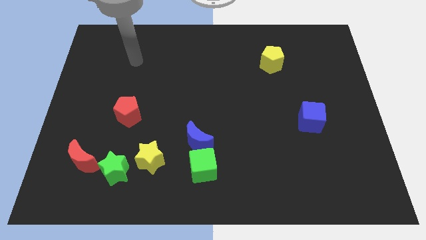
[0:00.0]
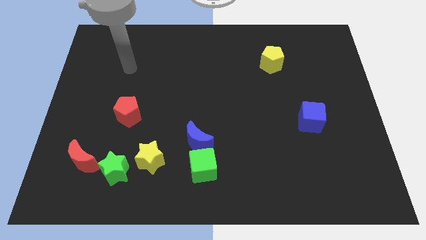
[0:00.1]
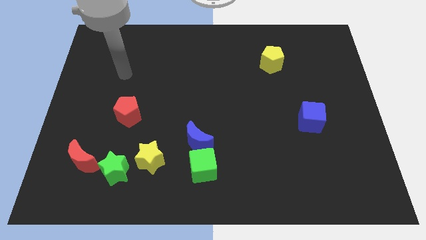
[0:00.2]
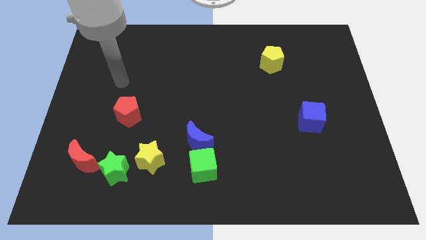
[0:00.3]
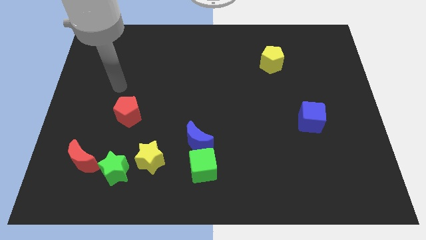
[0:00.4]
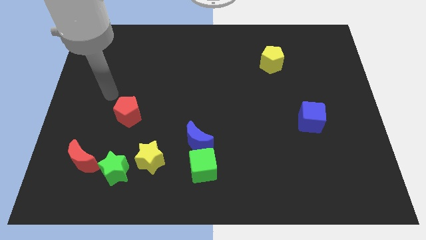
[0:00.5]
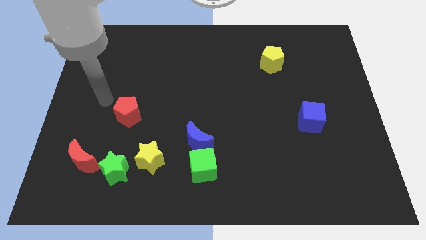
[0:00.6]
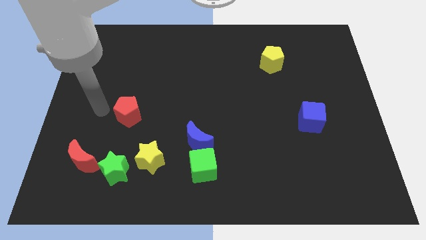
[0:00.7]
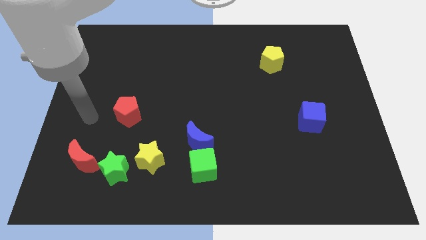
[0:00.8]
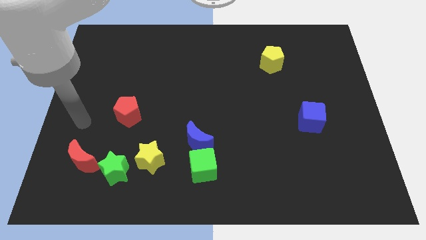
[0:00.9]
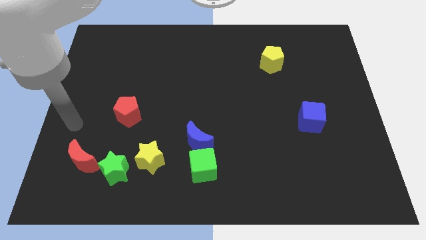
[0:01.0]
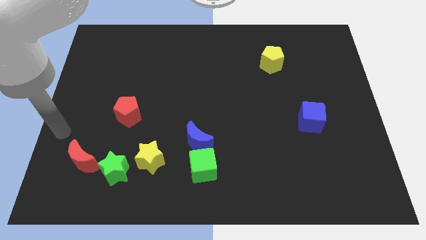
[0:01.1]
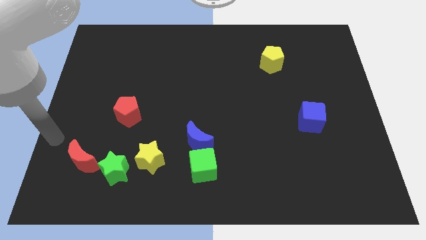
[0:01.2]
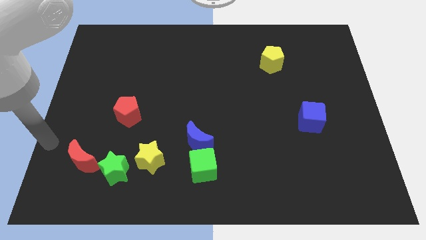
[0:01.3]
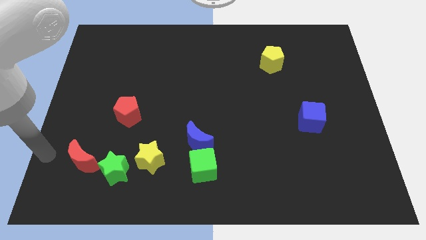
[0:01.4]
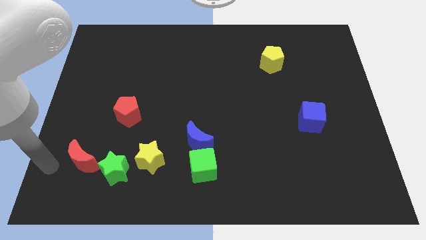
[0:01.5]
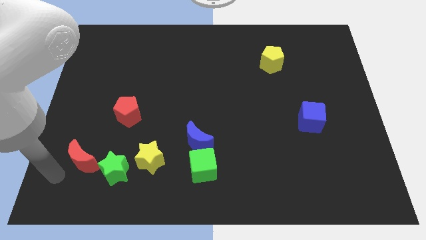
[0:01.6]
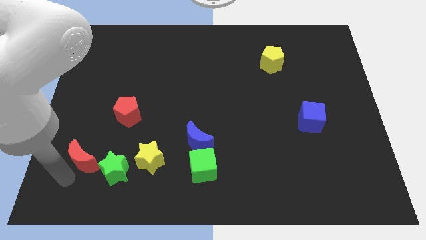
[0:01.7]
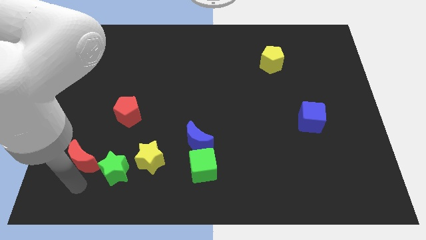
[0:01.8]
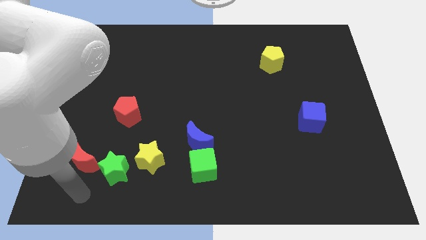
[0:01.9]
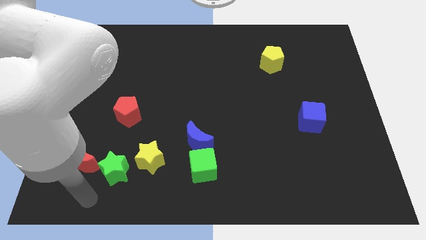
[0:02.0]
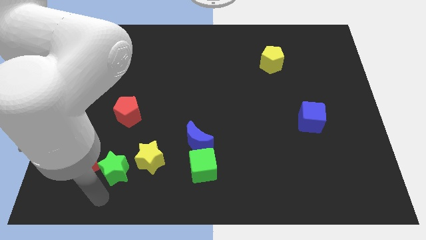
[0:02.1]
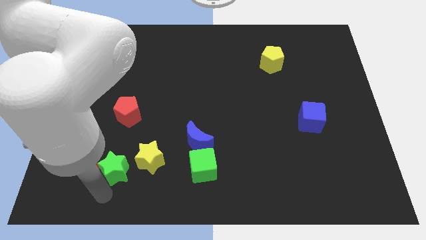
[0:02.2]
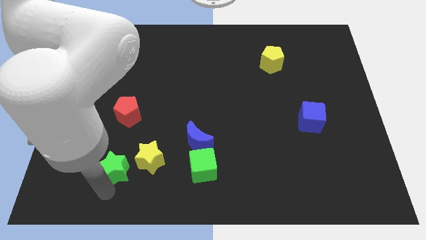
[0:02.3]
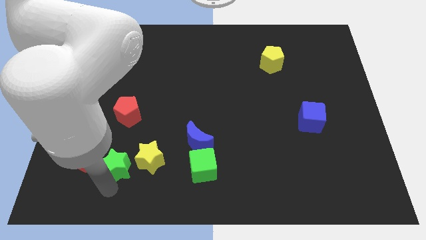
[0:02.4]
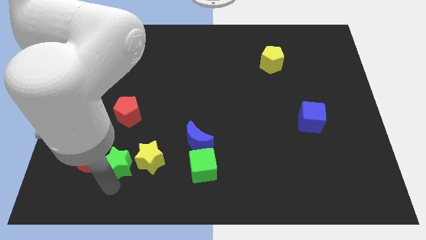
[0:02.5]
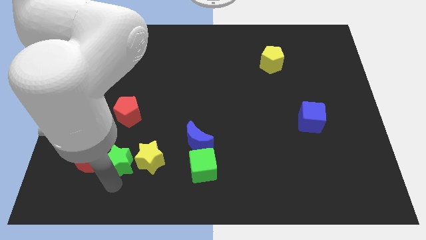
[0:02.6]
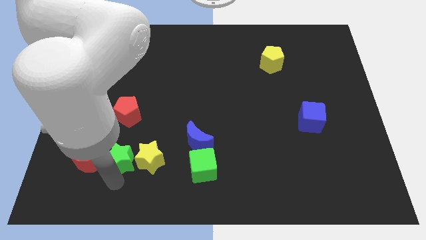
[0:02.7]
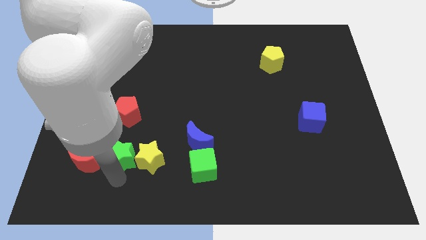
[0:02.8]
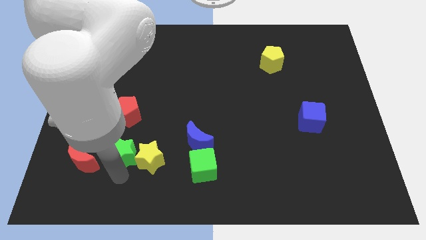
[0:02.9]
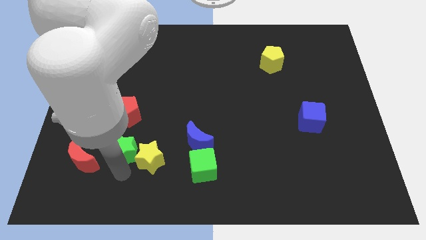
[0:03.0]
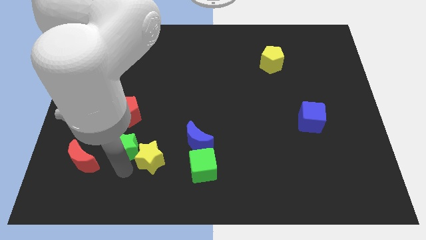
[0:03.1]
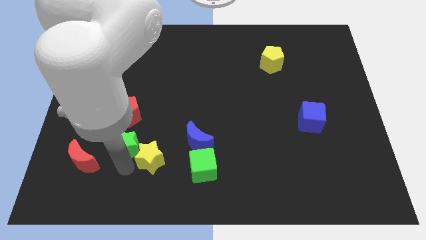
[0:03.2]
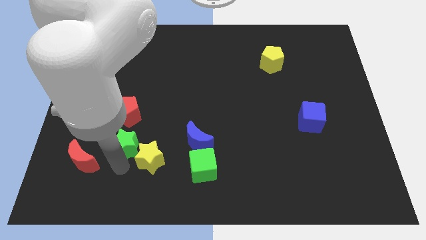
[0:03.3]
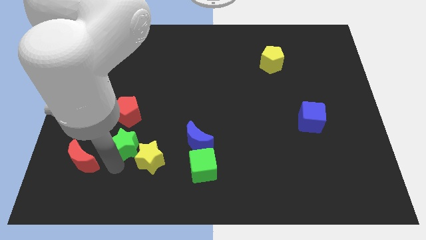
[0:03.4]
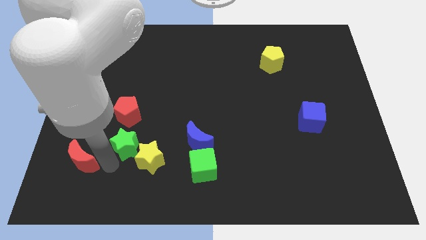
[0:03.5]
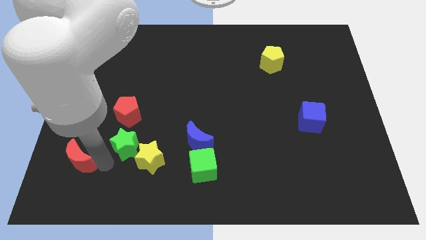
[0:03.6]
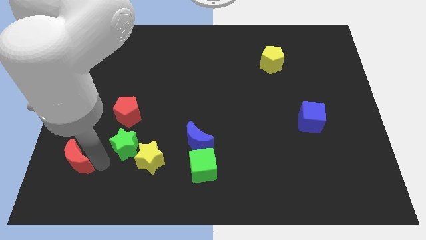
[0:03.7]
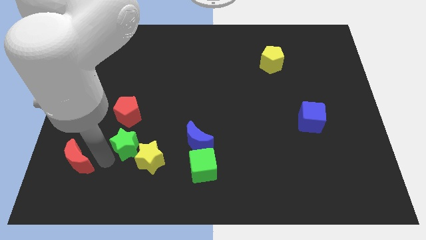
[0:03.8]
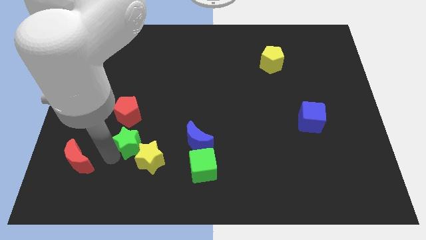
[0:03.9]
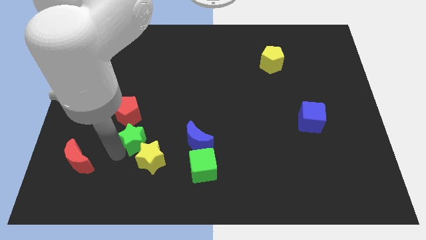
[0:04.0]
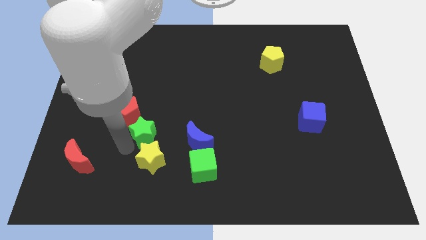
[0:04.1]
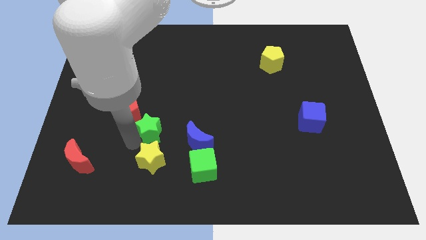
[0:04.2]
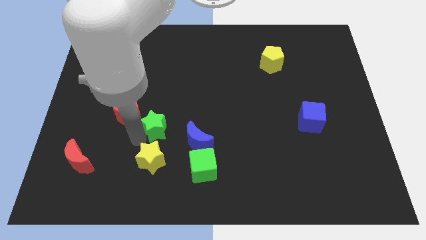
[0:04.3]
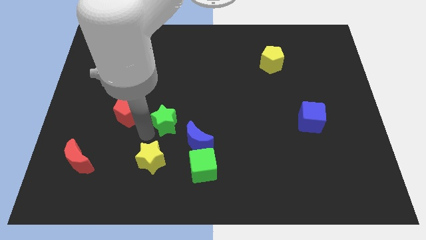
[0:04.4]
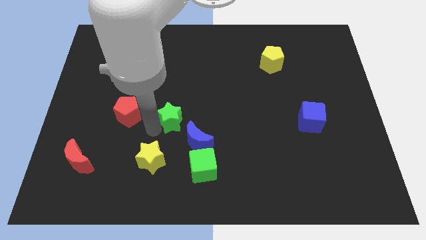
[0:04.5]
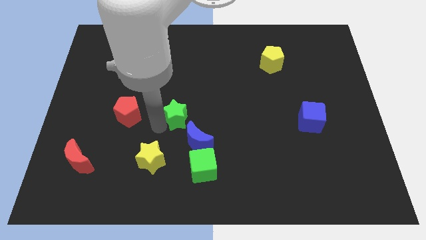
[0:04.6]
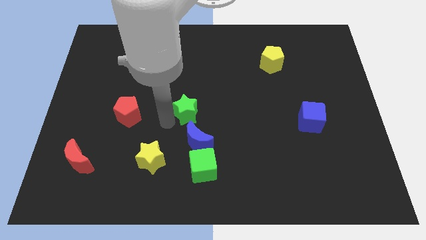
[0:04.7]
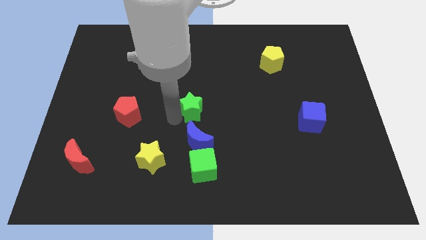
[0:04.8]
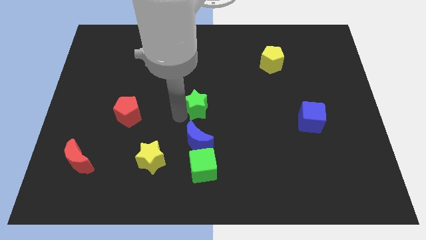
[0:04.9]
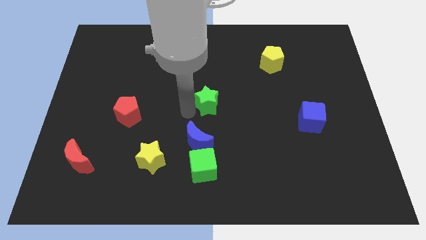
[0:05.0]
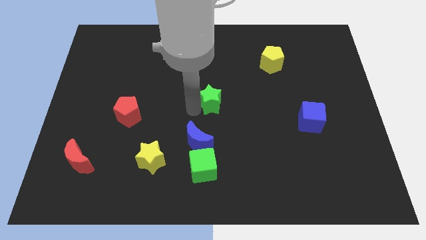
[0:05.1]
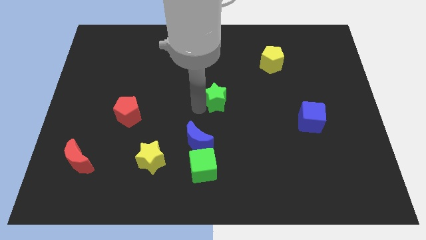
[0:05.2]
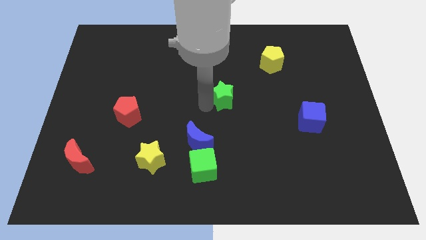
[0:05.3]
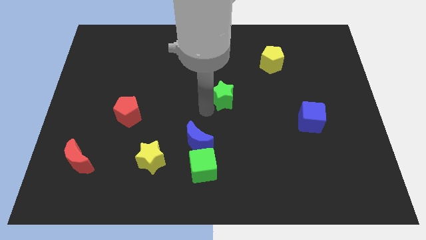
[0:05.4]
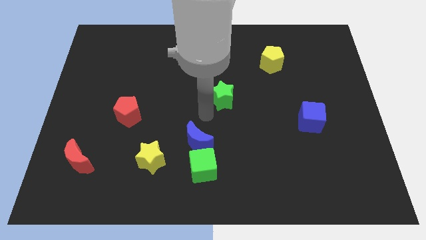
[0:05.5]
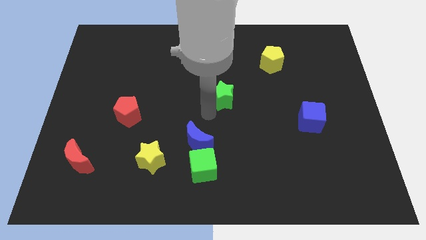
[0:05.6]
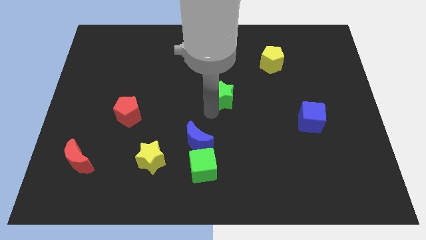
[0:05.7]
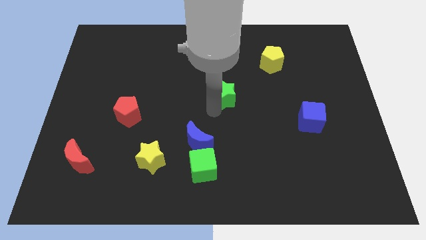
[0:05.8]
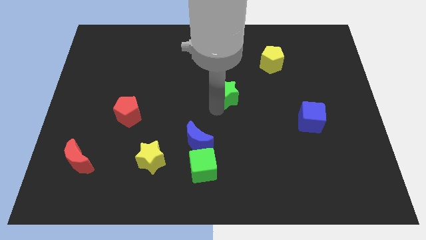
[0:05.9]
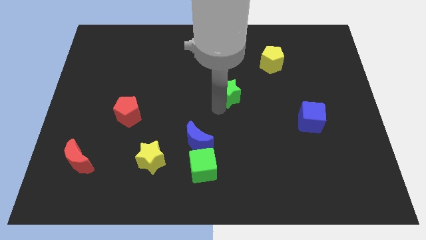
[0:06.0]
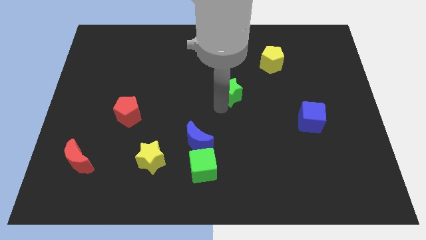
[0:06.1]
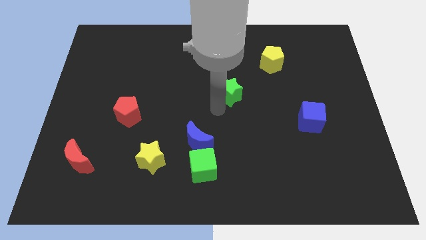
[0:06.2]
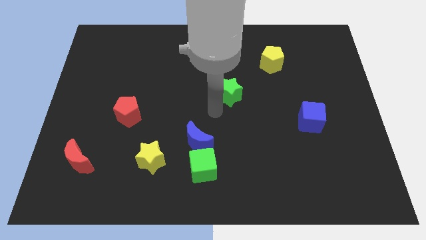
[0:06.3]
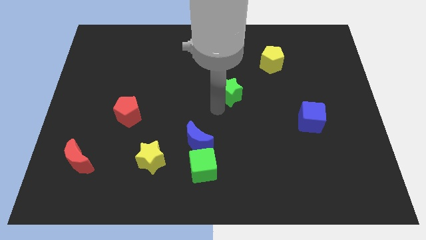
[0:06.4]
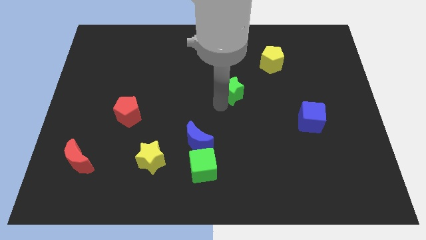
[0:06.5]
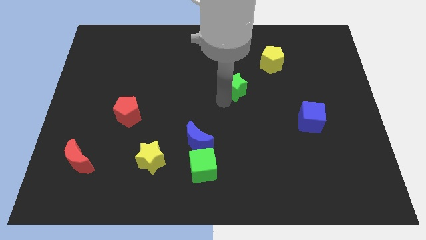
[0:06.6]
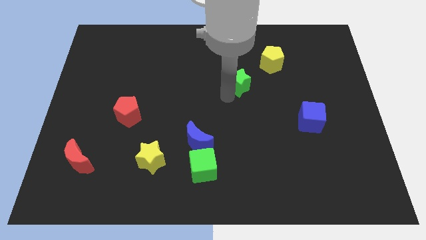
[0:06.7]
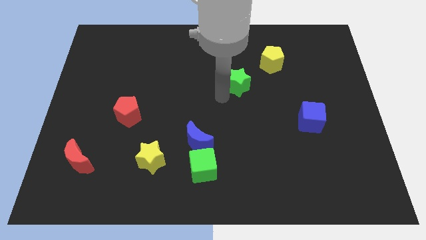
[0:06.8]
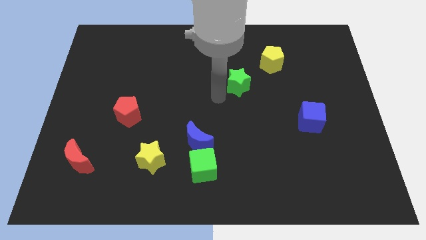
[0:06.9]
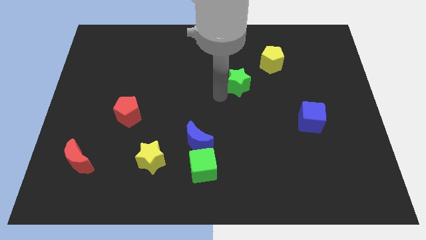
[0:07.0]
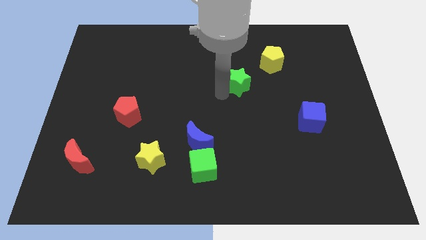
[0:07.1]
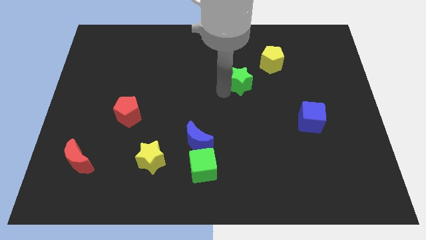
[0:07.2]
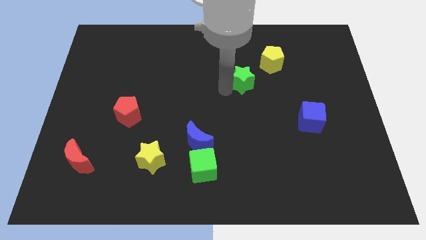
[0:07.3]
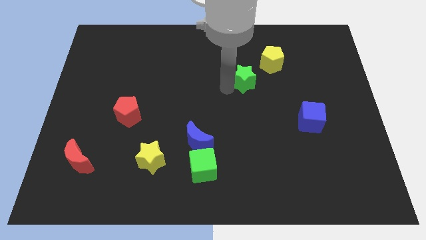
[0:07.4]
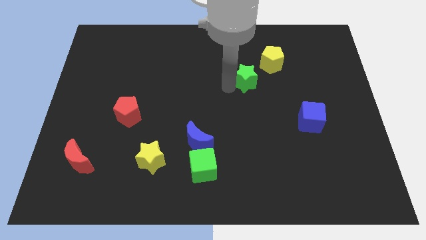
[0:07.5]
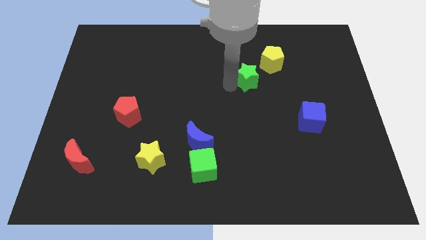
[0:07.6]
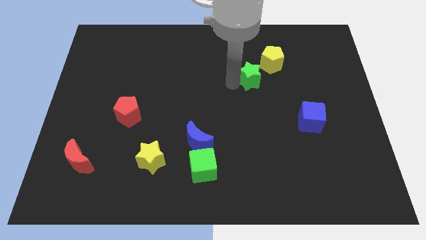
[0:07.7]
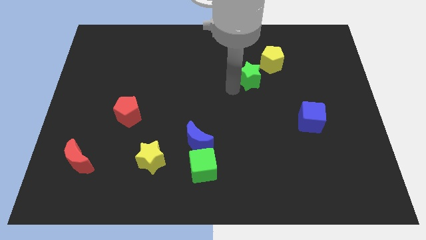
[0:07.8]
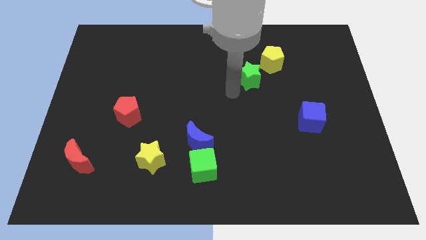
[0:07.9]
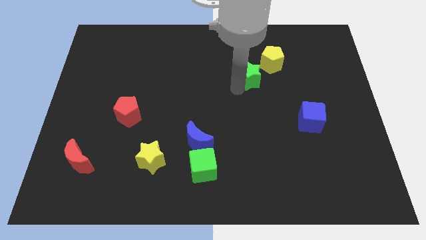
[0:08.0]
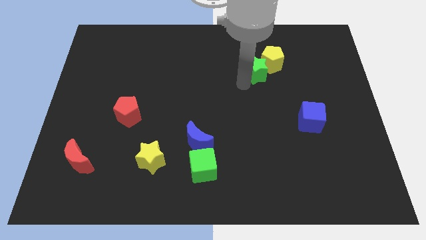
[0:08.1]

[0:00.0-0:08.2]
put the green star towards the yellow pentagon
